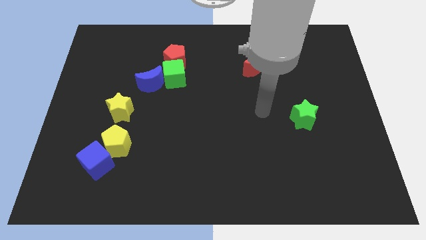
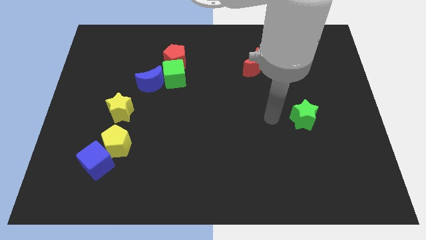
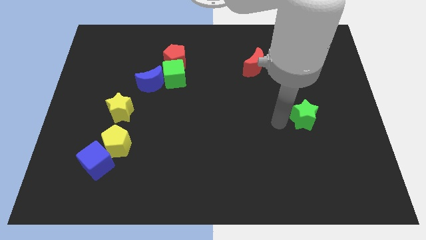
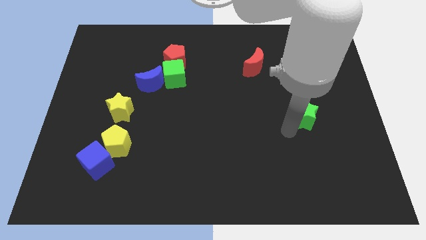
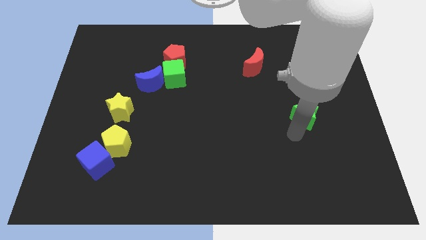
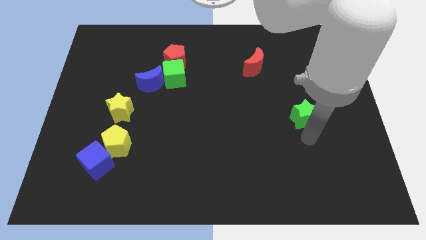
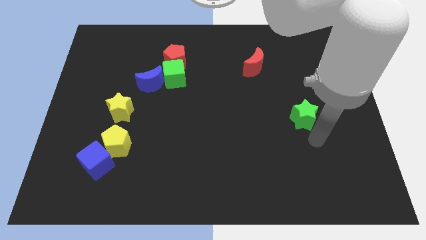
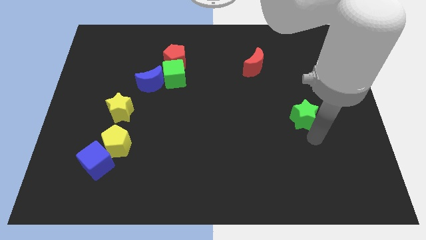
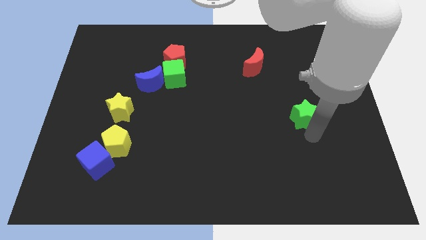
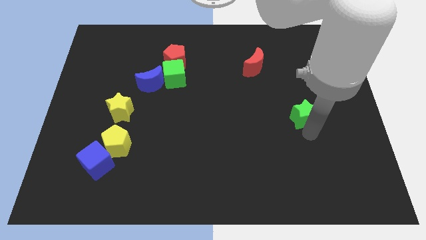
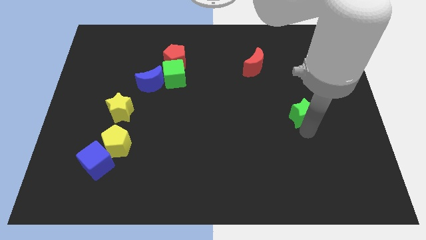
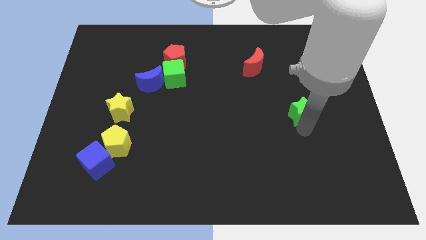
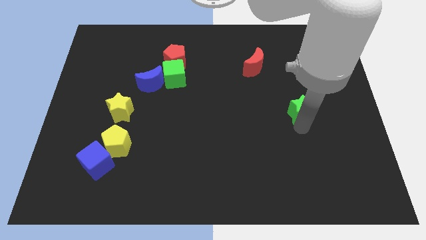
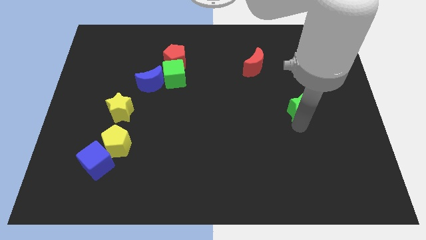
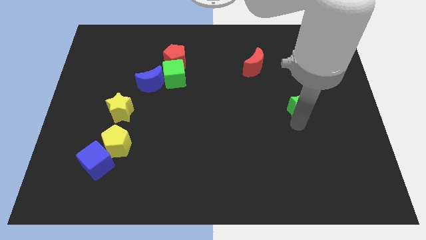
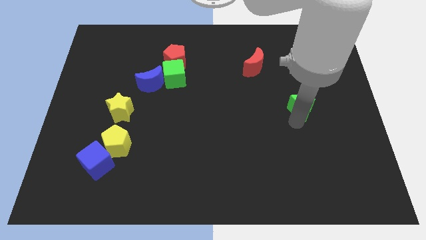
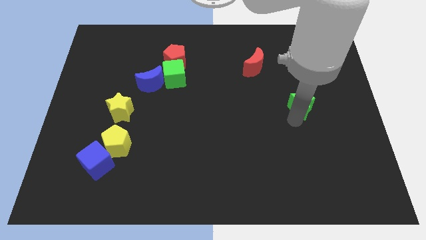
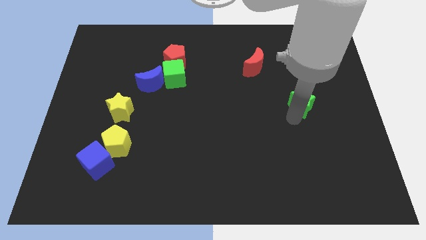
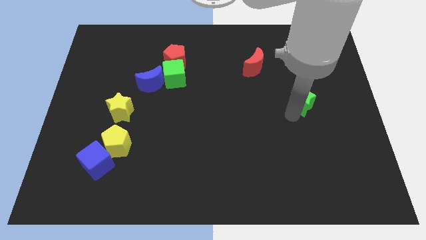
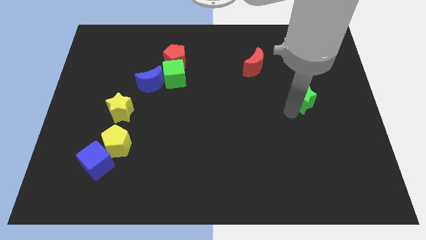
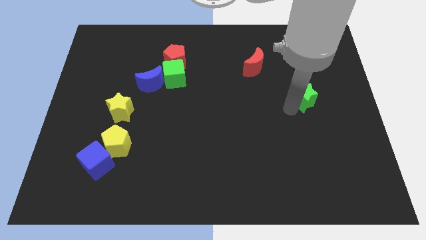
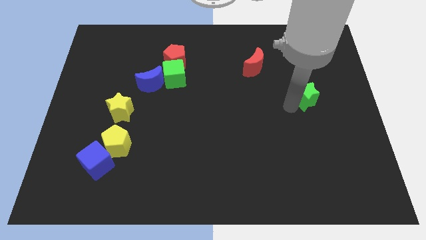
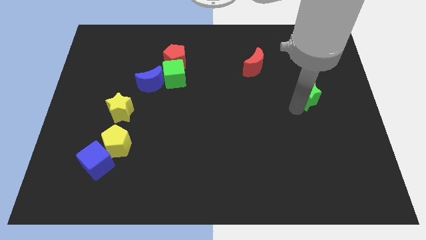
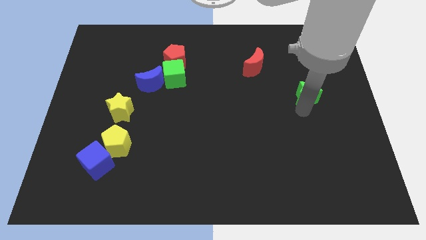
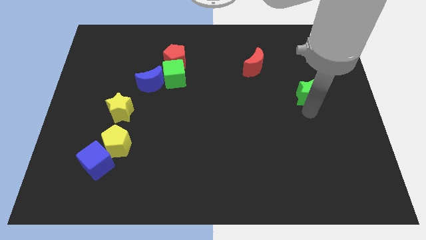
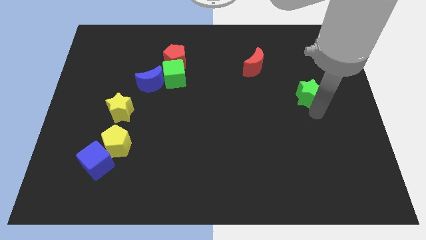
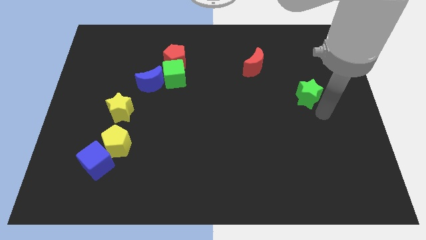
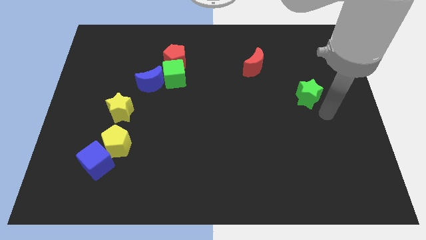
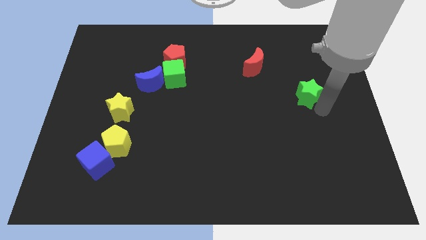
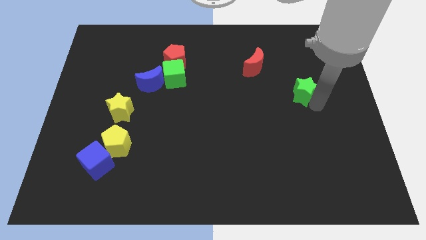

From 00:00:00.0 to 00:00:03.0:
push the green star up slightly

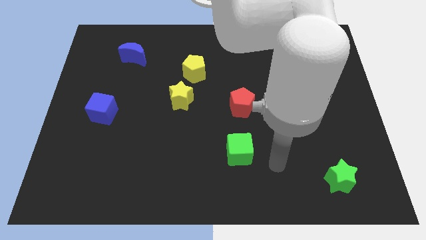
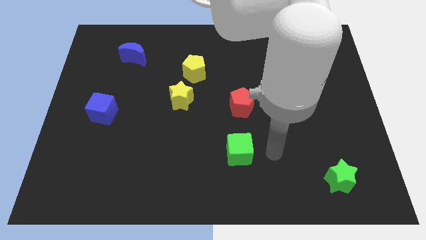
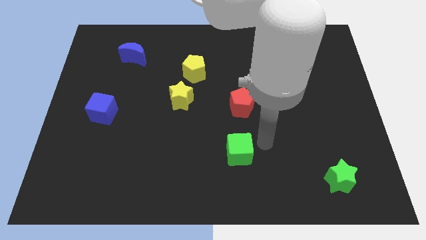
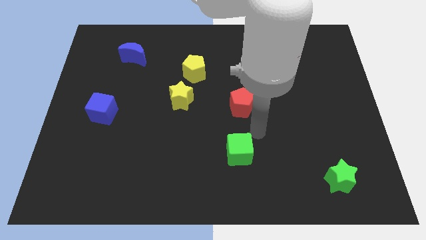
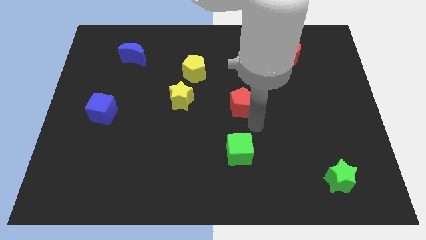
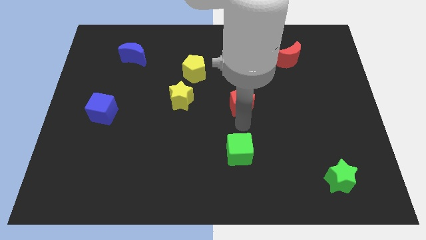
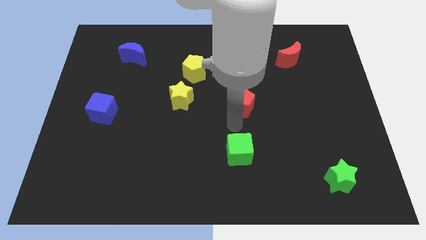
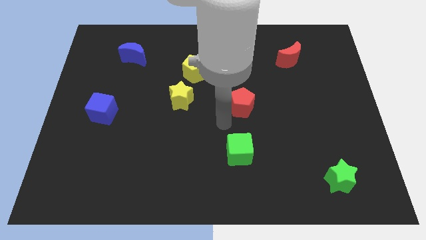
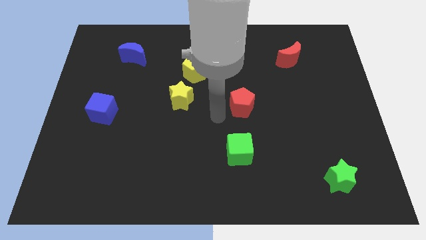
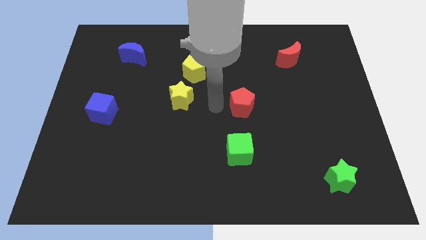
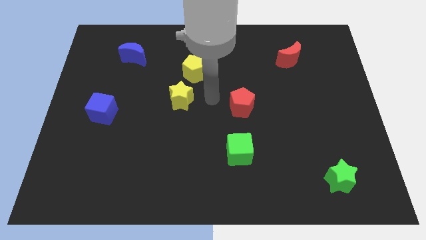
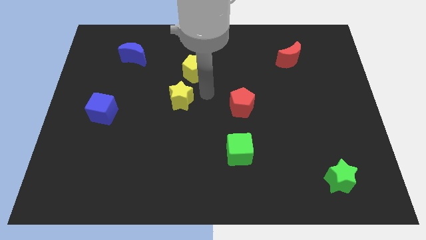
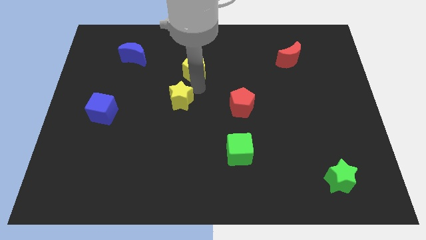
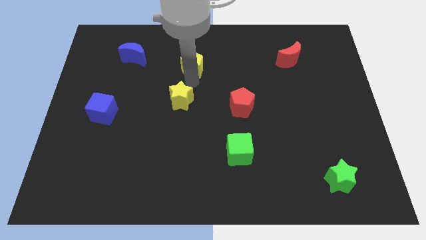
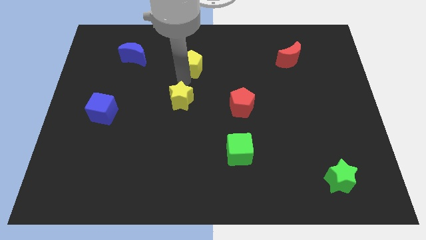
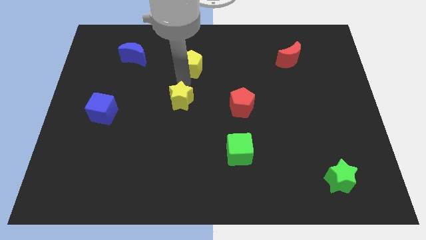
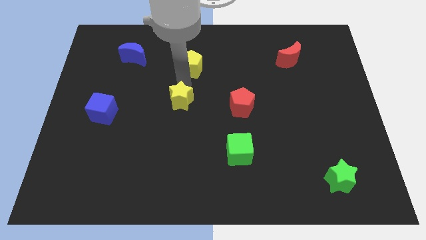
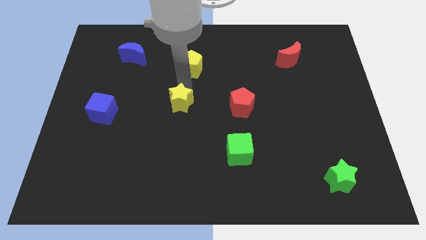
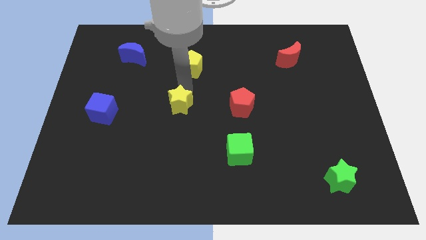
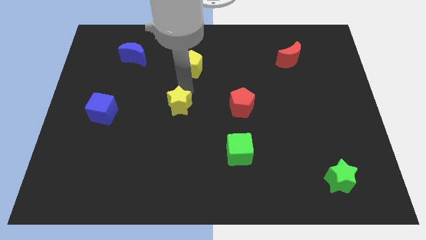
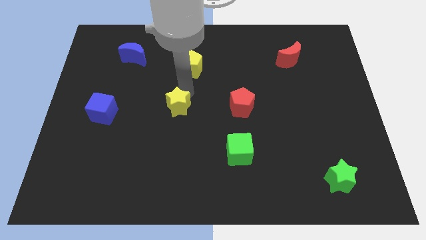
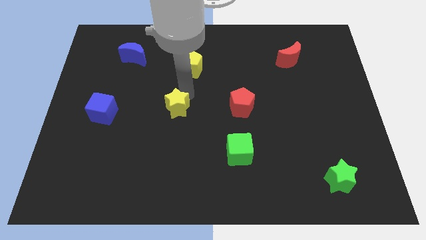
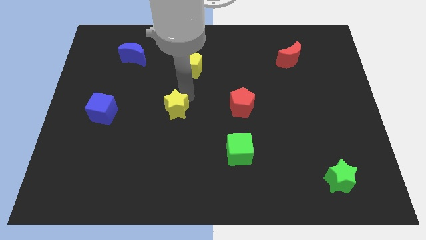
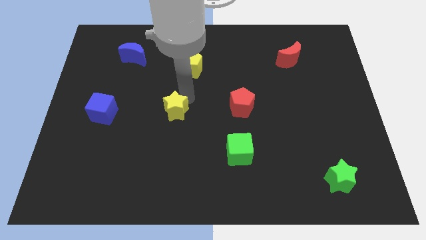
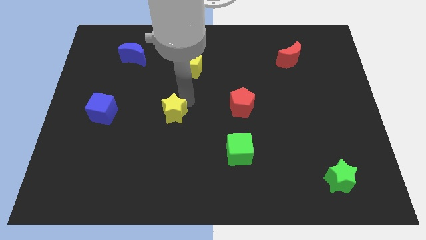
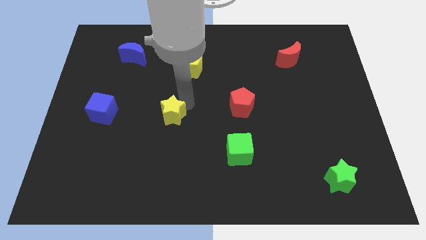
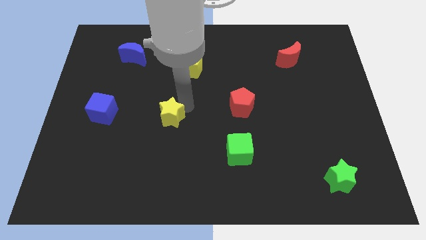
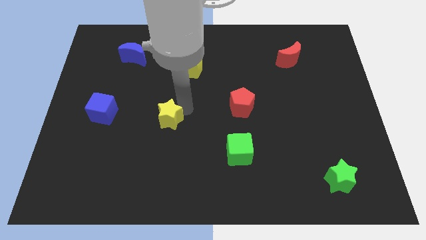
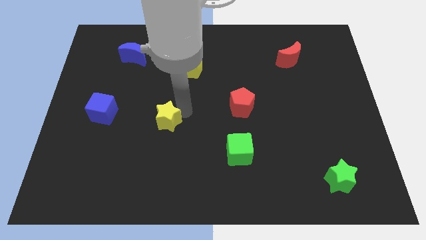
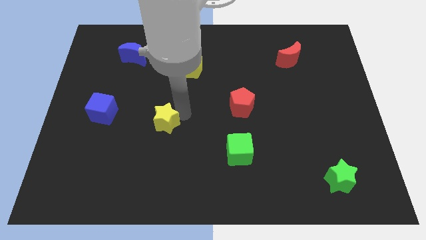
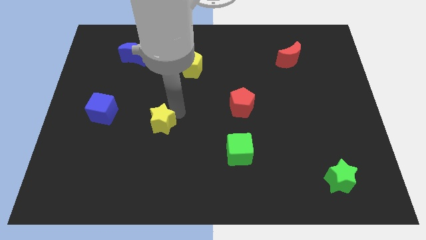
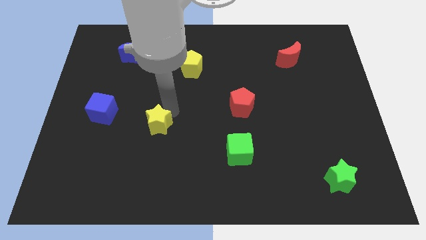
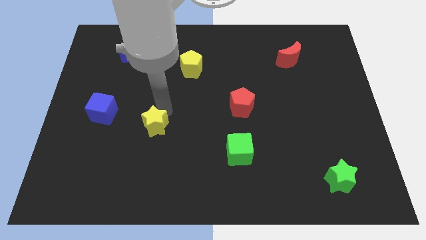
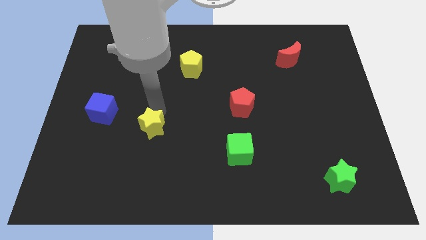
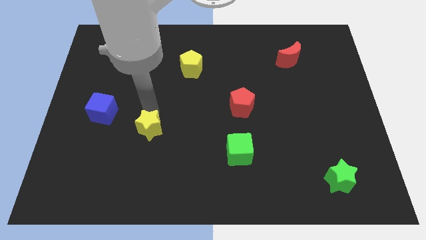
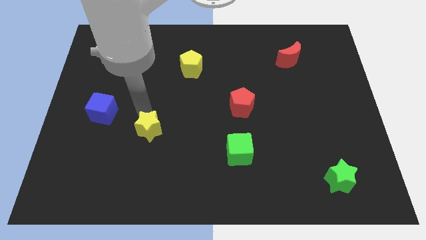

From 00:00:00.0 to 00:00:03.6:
slightly push the yellow star down

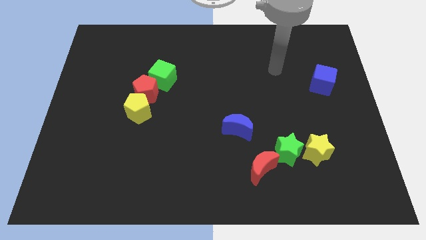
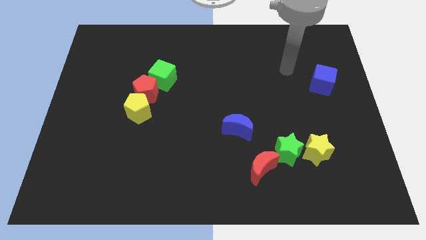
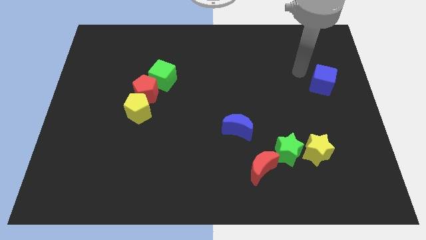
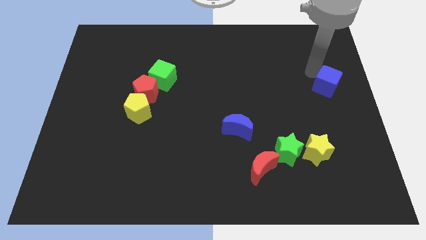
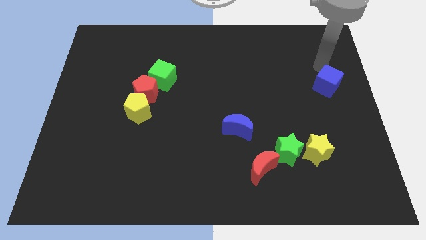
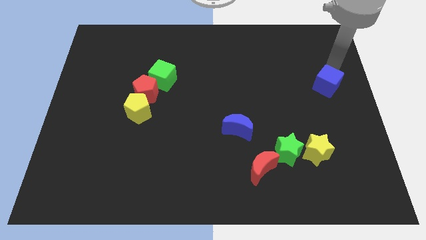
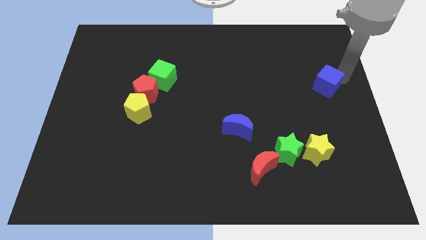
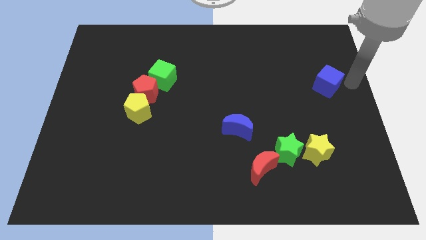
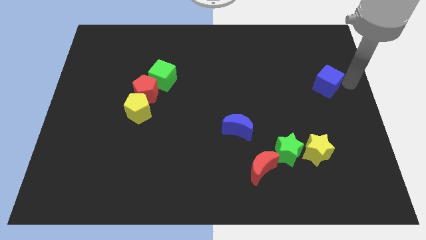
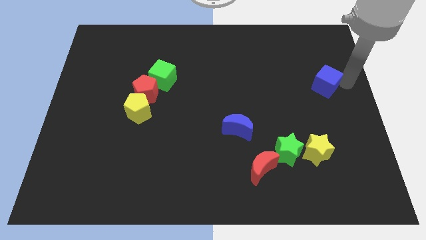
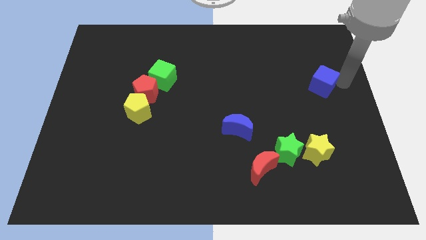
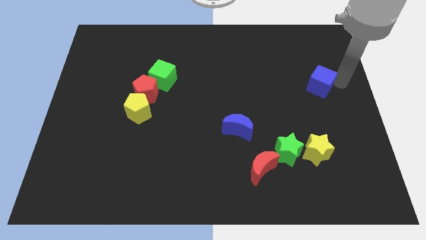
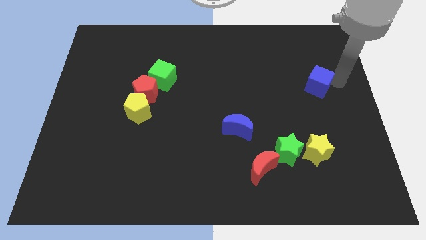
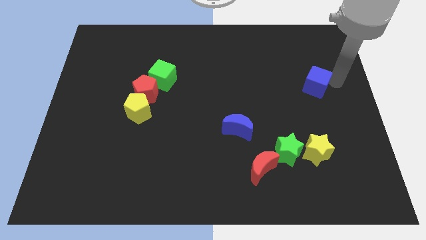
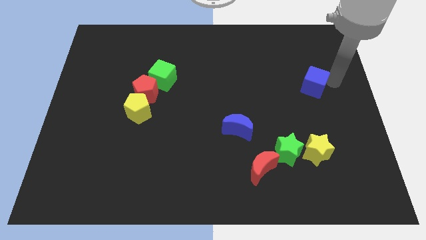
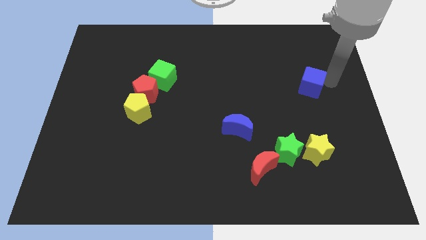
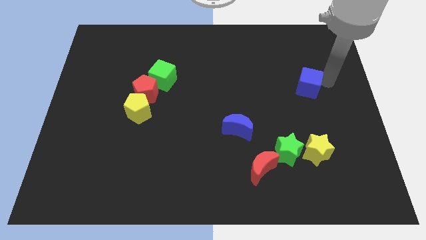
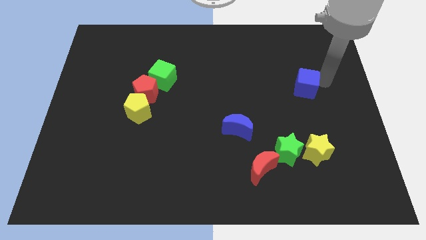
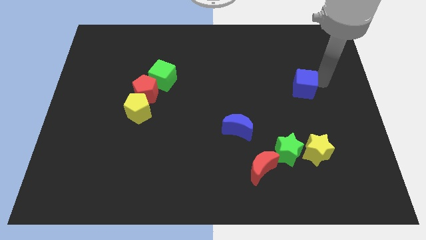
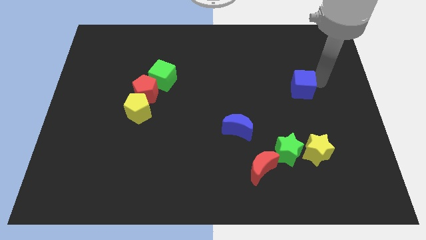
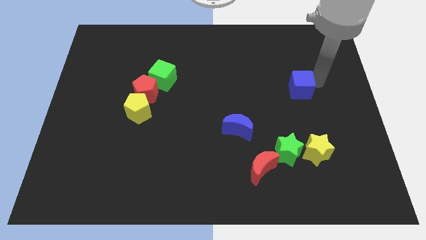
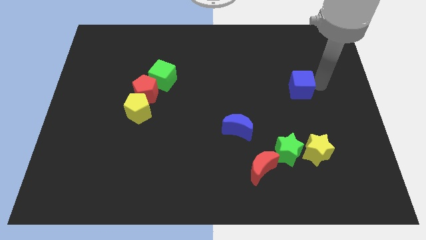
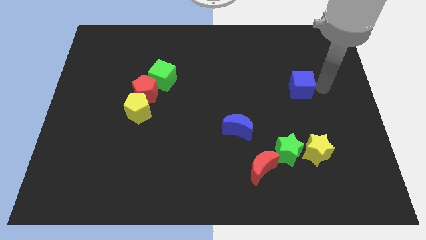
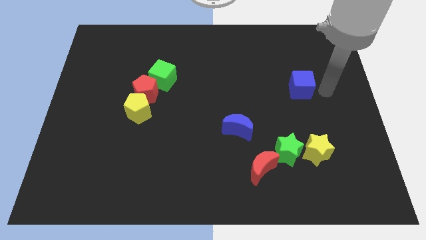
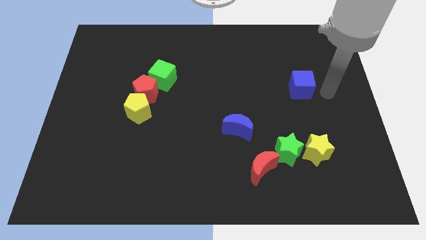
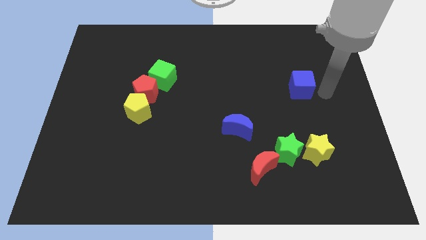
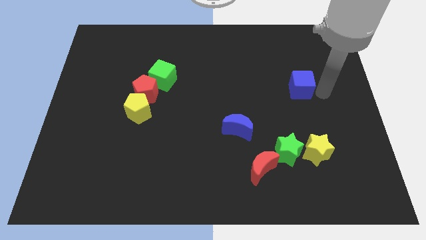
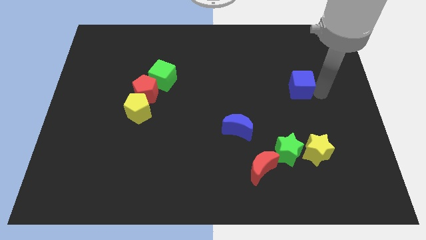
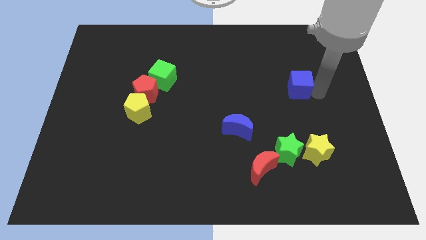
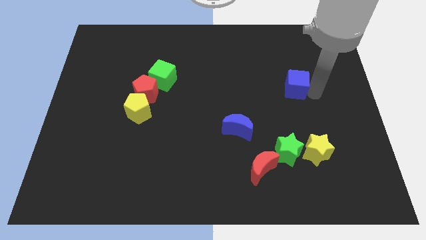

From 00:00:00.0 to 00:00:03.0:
slightly move the blue cube left
